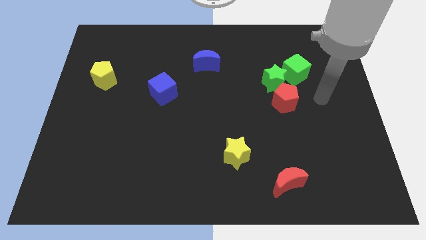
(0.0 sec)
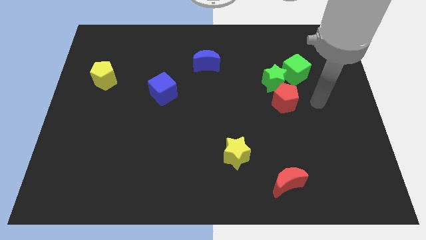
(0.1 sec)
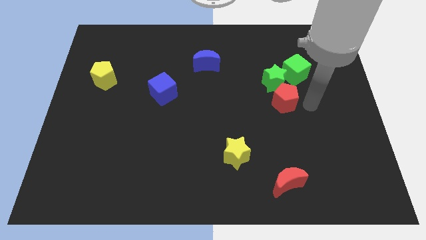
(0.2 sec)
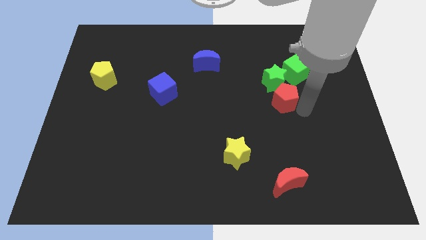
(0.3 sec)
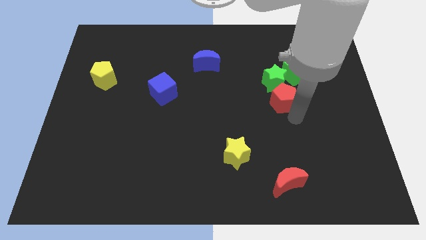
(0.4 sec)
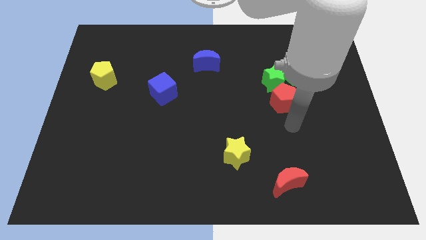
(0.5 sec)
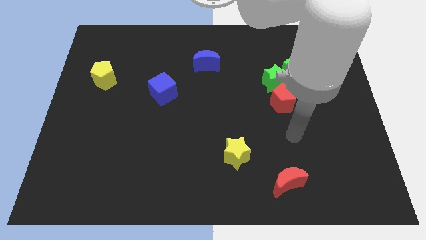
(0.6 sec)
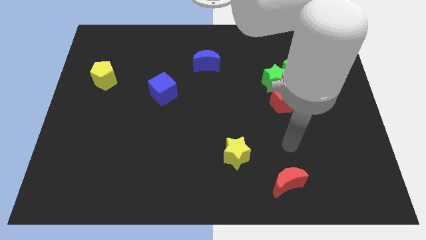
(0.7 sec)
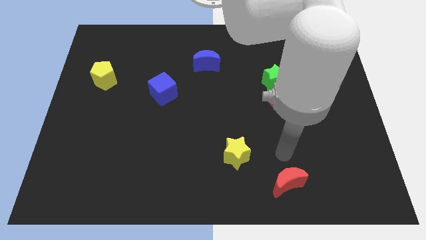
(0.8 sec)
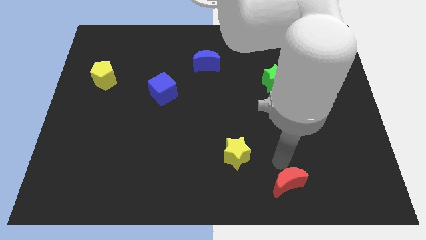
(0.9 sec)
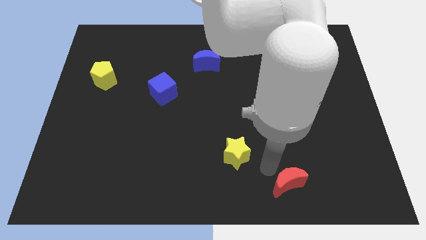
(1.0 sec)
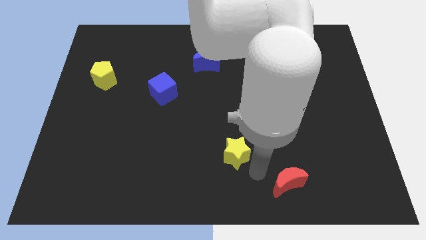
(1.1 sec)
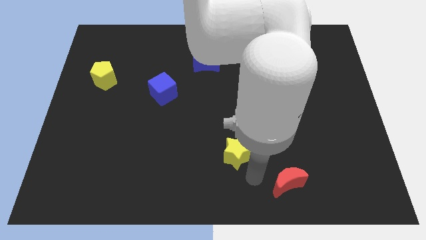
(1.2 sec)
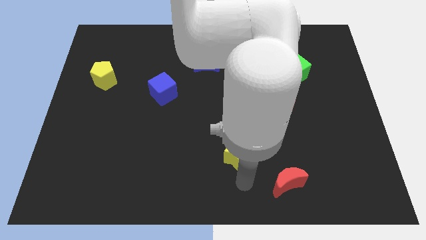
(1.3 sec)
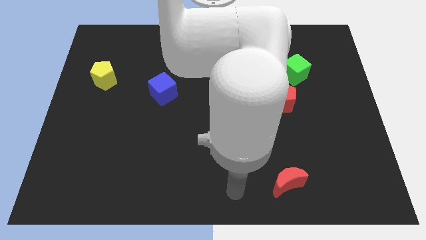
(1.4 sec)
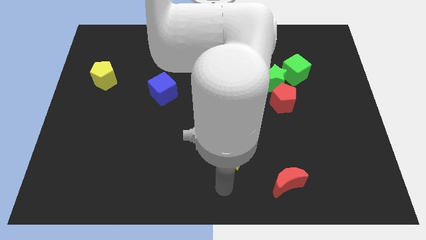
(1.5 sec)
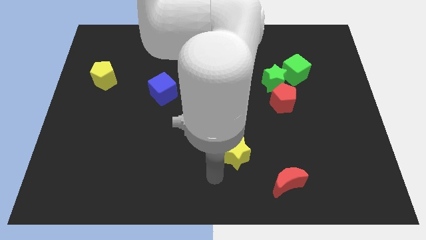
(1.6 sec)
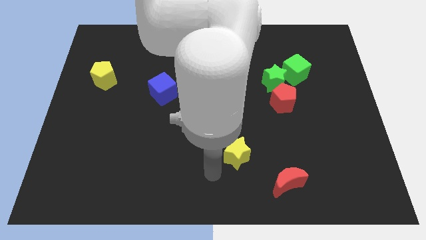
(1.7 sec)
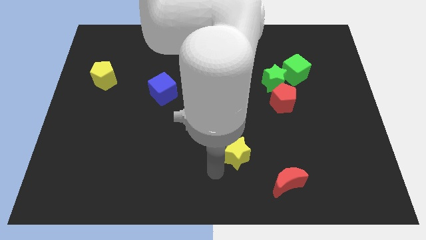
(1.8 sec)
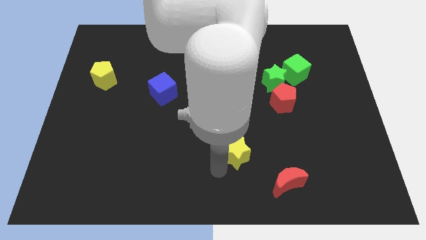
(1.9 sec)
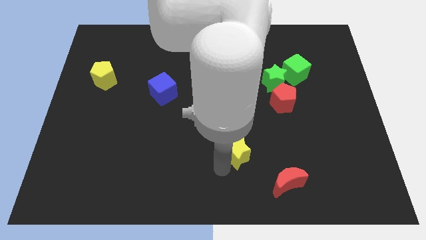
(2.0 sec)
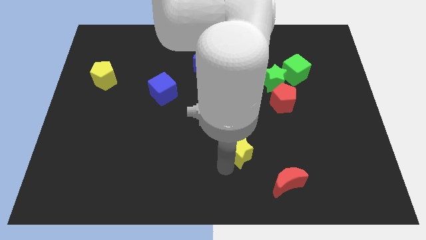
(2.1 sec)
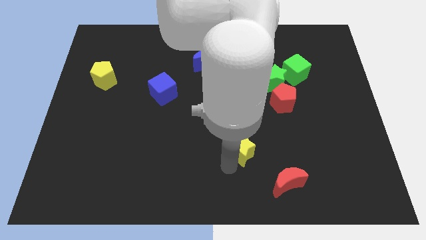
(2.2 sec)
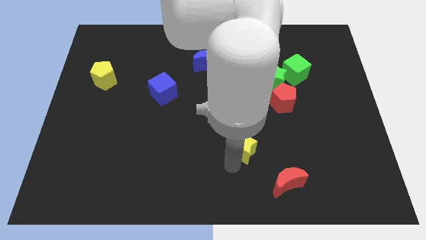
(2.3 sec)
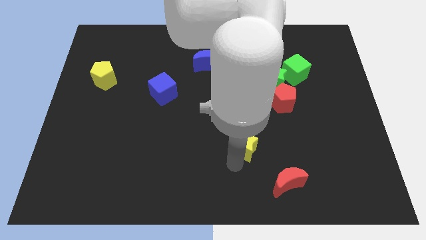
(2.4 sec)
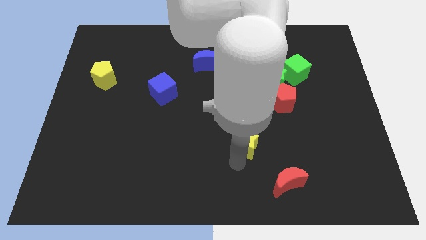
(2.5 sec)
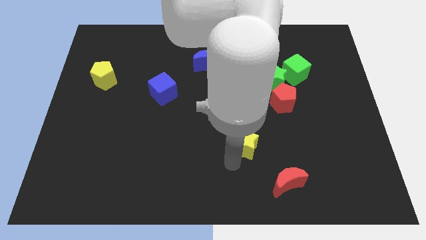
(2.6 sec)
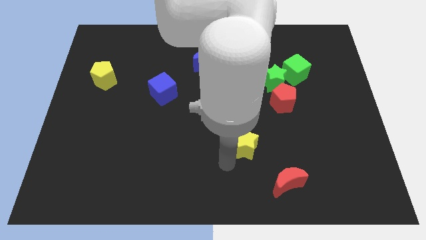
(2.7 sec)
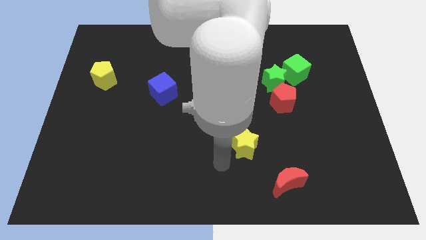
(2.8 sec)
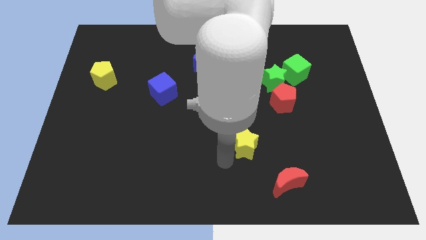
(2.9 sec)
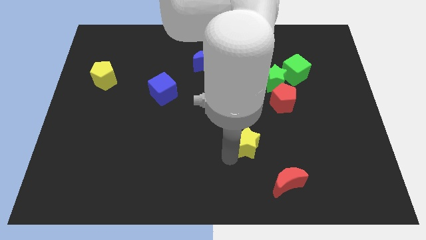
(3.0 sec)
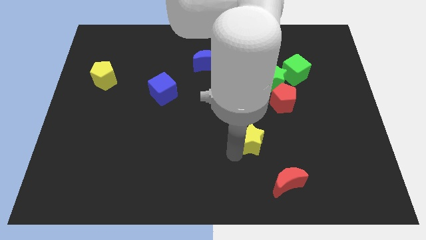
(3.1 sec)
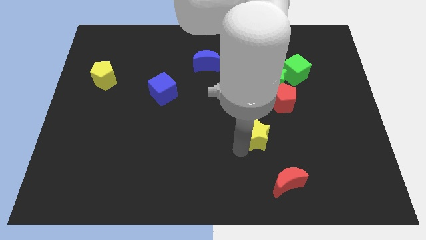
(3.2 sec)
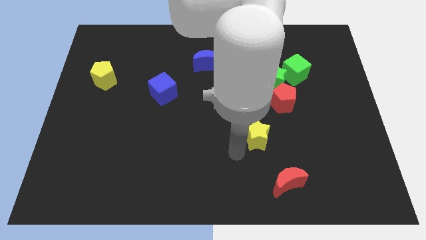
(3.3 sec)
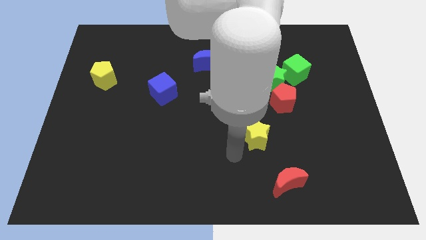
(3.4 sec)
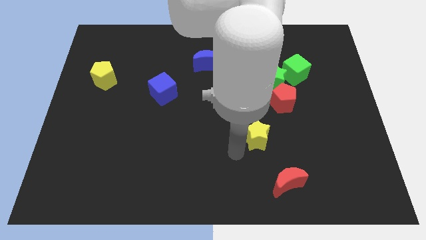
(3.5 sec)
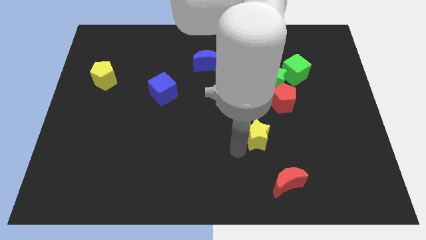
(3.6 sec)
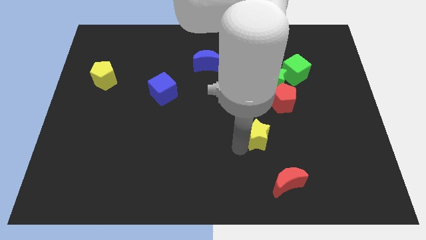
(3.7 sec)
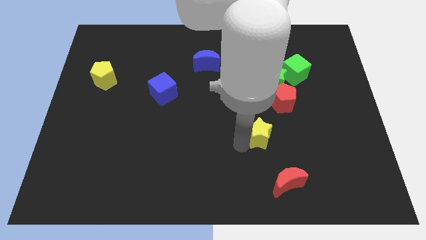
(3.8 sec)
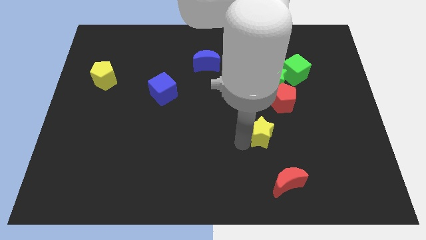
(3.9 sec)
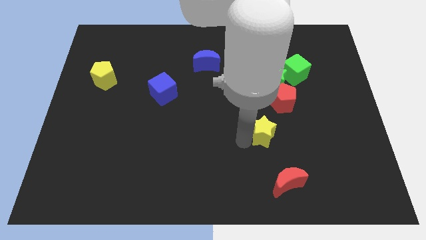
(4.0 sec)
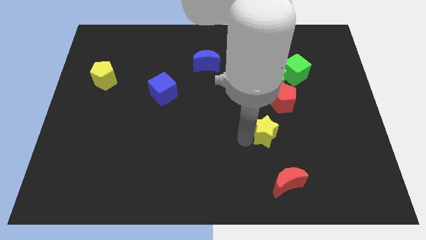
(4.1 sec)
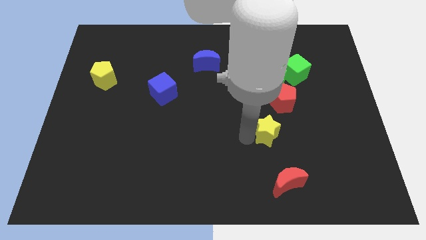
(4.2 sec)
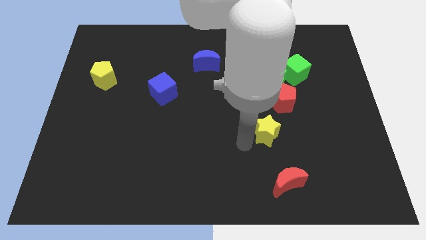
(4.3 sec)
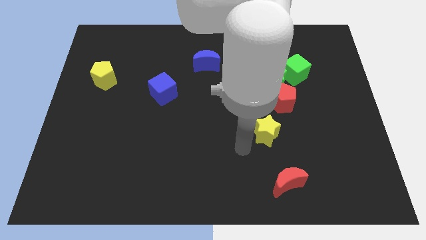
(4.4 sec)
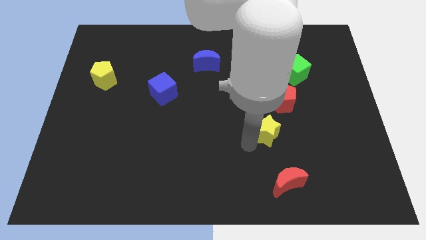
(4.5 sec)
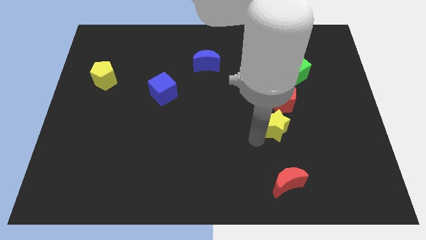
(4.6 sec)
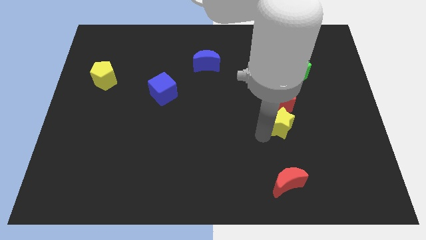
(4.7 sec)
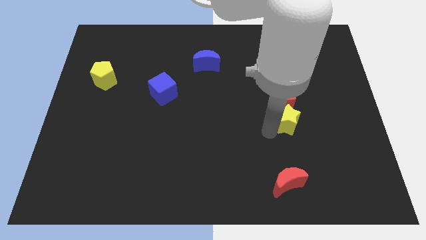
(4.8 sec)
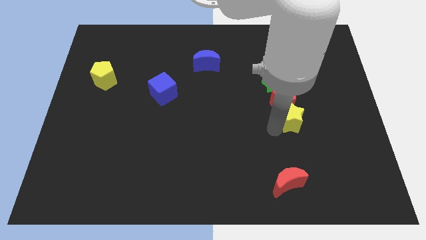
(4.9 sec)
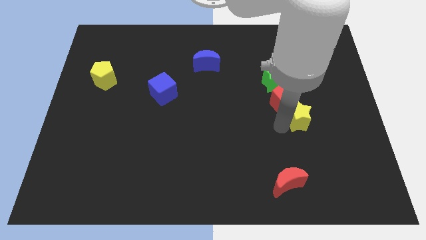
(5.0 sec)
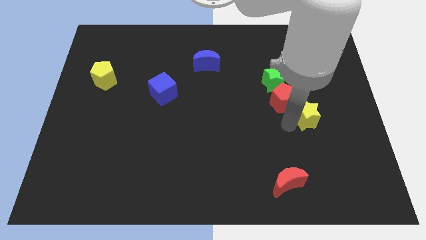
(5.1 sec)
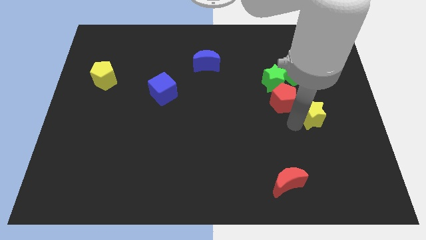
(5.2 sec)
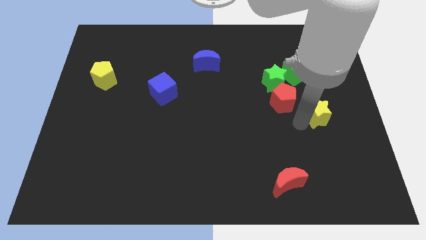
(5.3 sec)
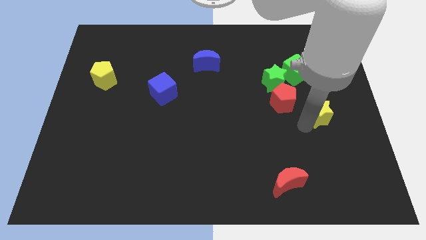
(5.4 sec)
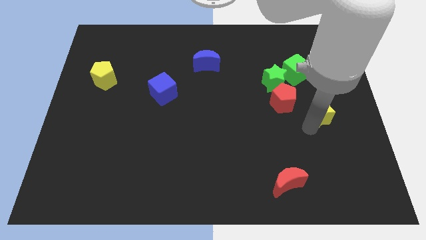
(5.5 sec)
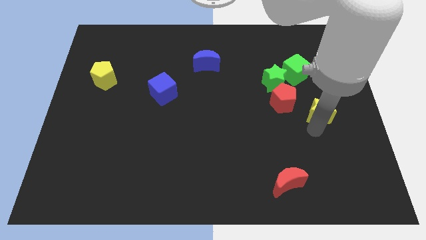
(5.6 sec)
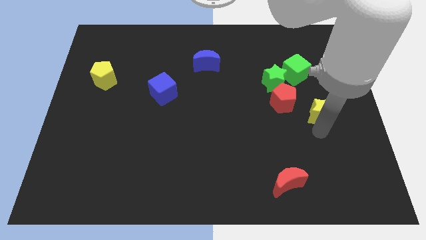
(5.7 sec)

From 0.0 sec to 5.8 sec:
move the yellow star upwards and then right

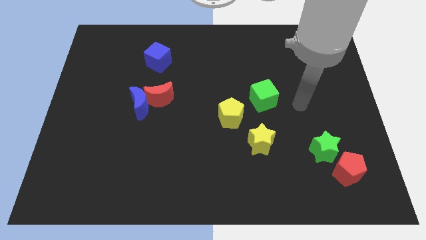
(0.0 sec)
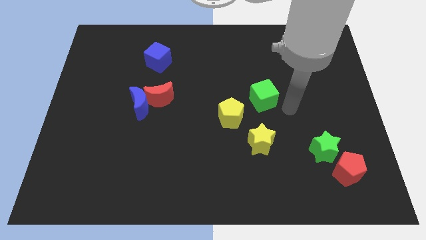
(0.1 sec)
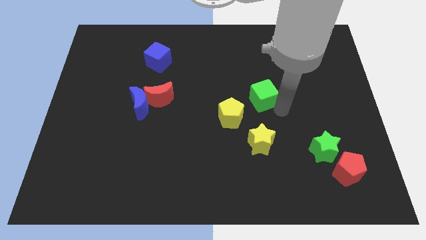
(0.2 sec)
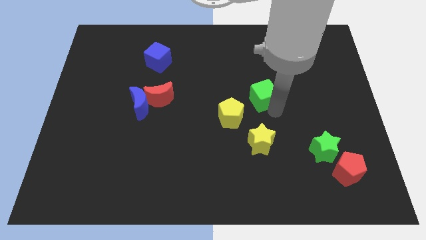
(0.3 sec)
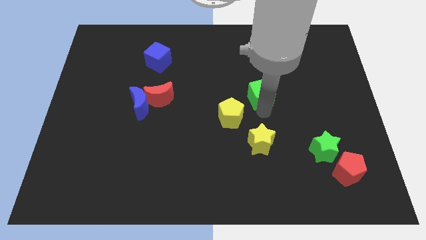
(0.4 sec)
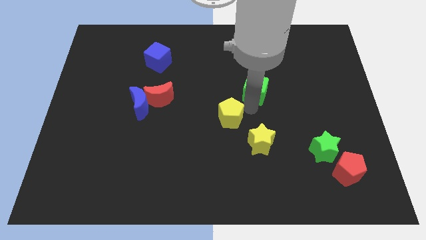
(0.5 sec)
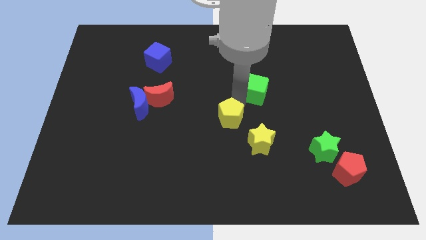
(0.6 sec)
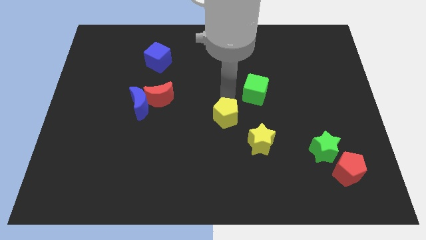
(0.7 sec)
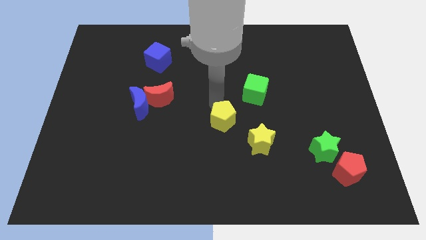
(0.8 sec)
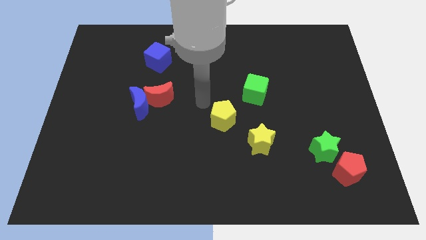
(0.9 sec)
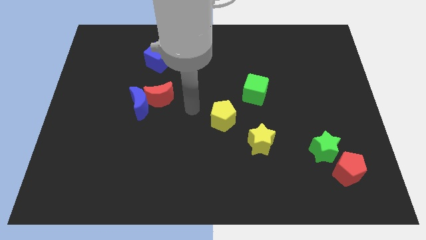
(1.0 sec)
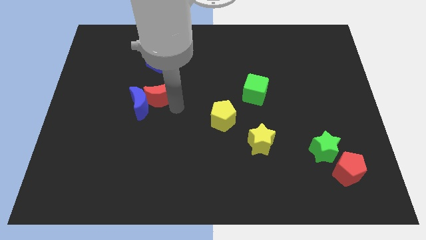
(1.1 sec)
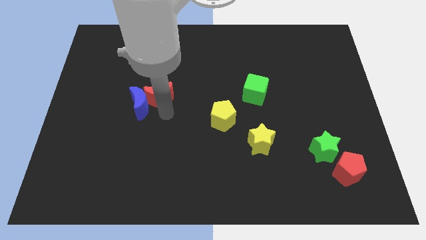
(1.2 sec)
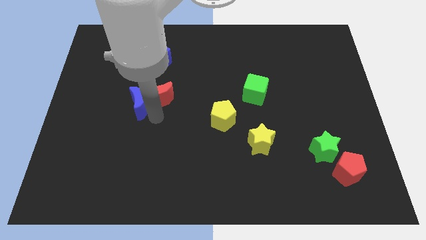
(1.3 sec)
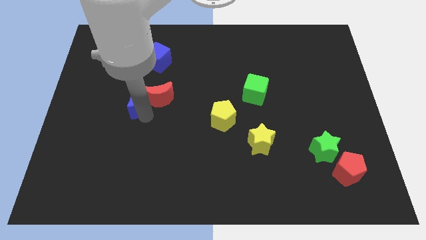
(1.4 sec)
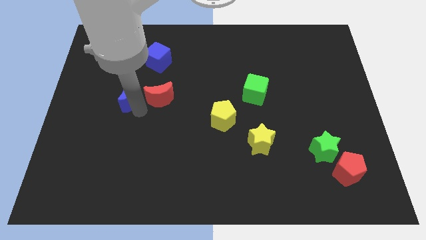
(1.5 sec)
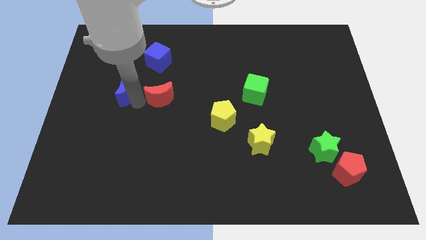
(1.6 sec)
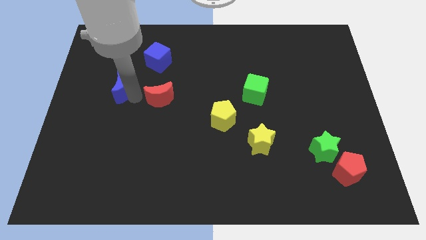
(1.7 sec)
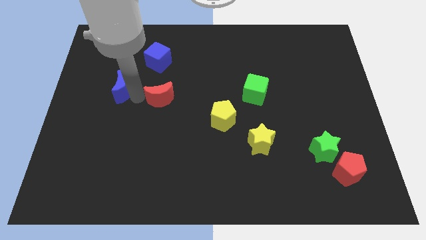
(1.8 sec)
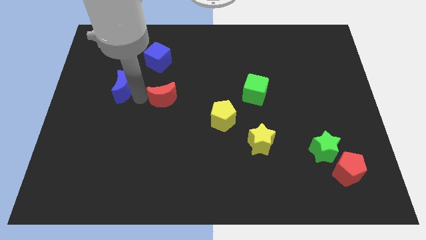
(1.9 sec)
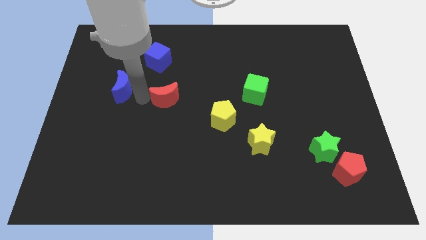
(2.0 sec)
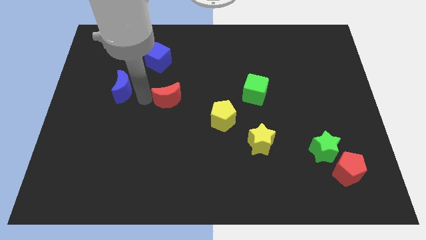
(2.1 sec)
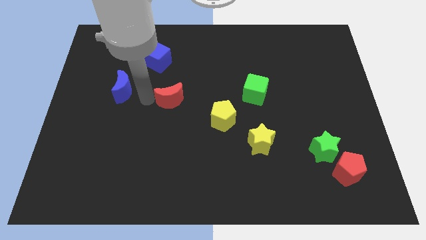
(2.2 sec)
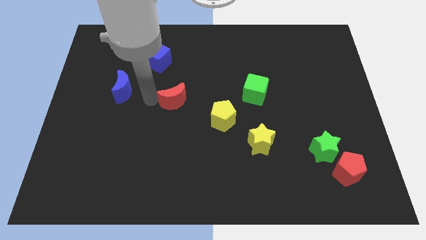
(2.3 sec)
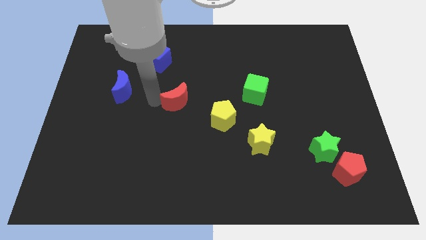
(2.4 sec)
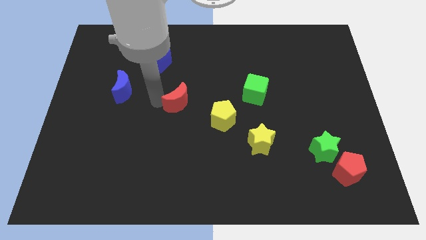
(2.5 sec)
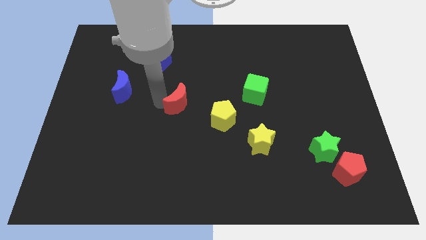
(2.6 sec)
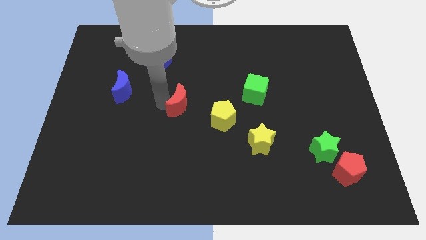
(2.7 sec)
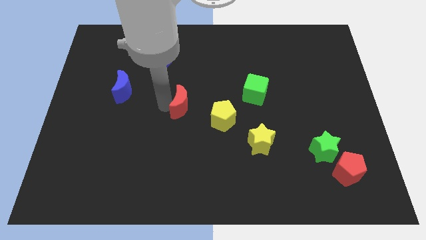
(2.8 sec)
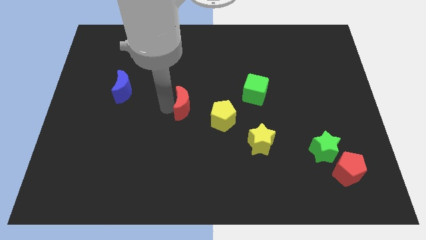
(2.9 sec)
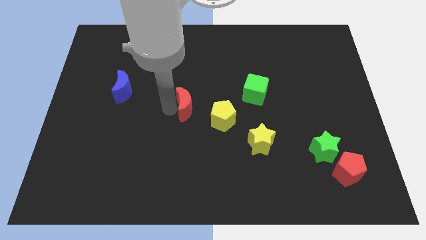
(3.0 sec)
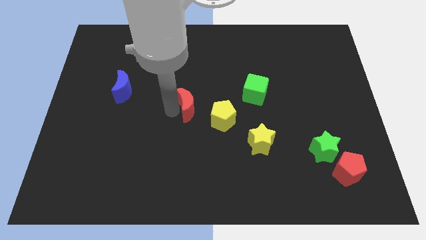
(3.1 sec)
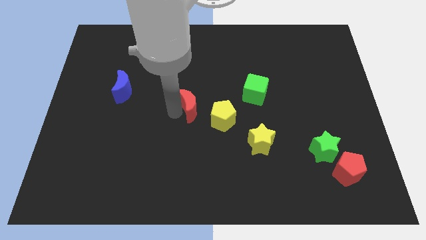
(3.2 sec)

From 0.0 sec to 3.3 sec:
slightly move the red moon right
